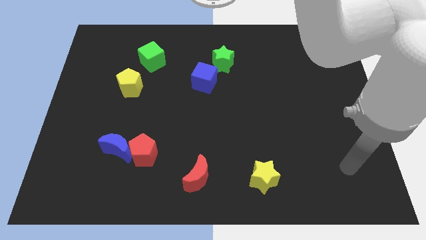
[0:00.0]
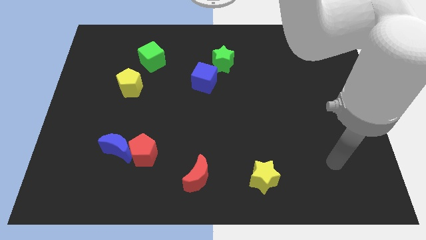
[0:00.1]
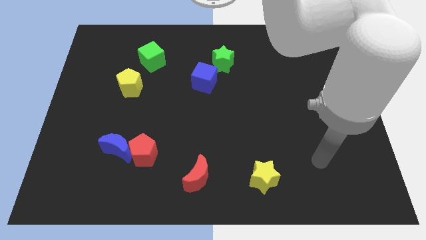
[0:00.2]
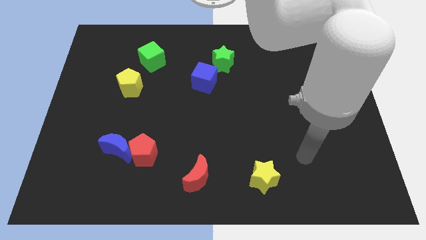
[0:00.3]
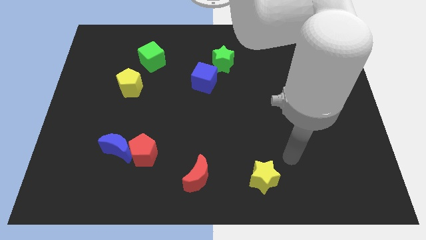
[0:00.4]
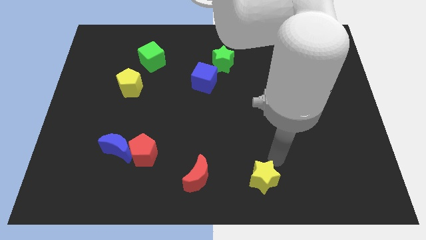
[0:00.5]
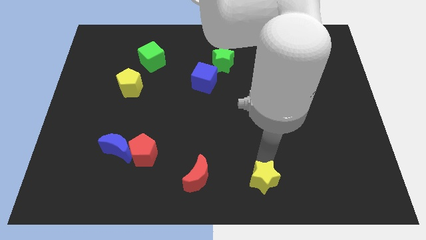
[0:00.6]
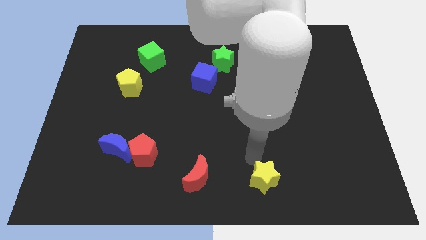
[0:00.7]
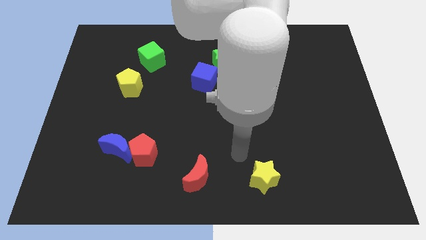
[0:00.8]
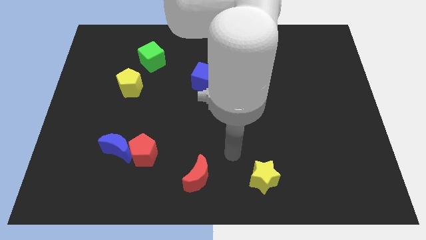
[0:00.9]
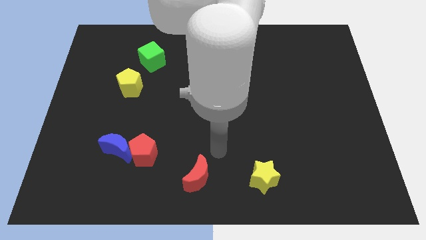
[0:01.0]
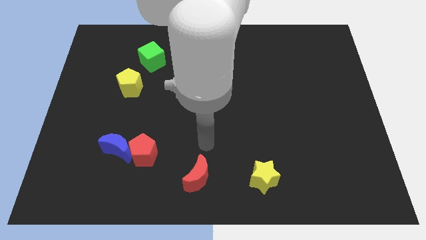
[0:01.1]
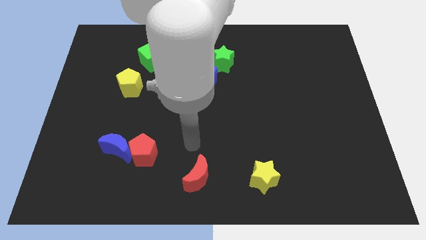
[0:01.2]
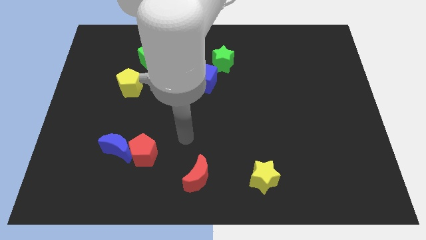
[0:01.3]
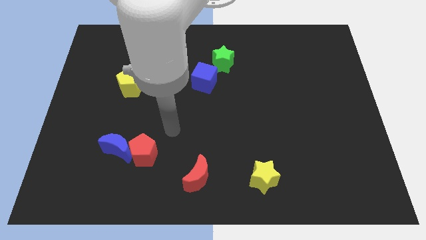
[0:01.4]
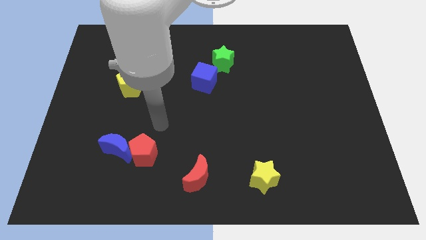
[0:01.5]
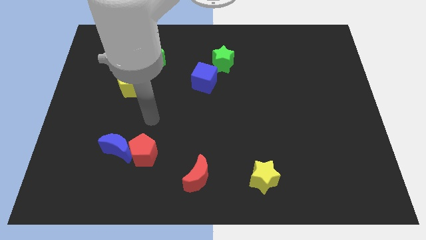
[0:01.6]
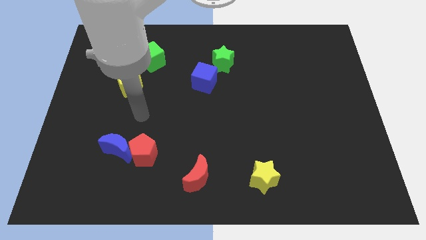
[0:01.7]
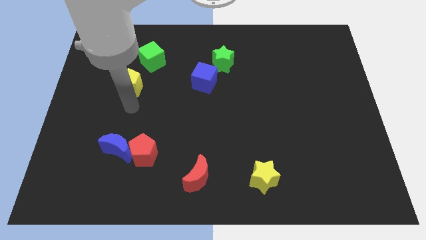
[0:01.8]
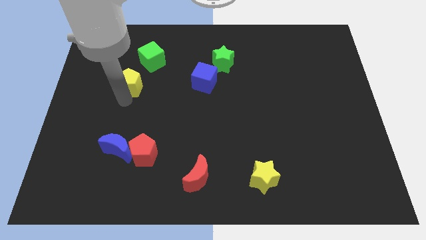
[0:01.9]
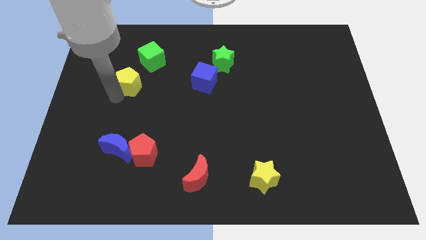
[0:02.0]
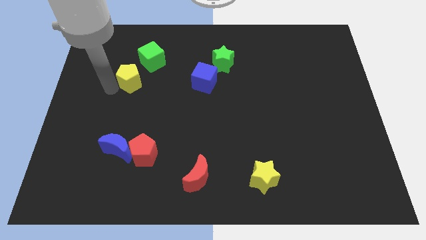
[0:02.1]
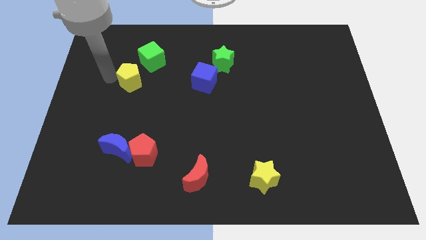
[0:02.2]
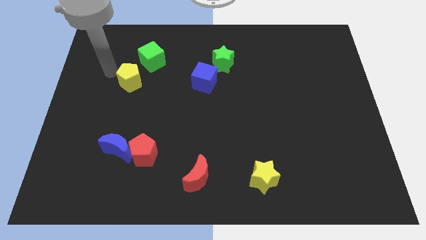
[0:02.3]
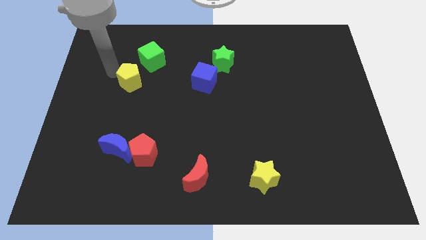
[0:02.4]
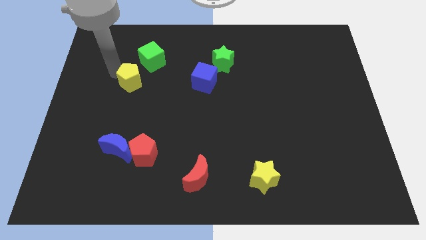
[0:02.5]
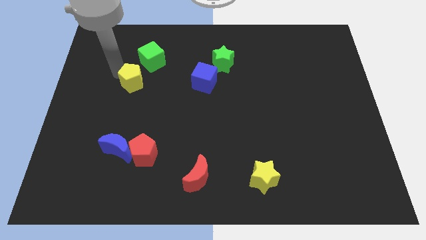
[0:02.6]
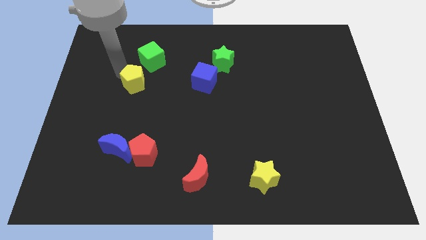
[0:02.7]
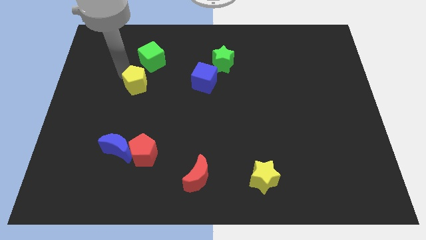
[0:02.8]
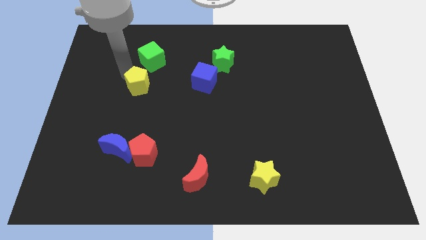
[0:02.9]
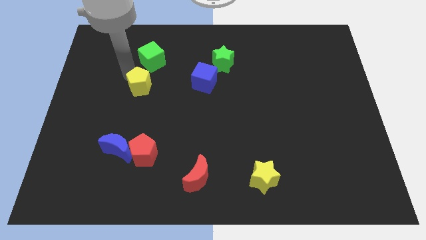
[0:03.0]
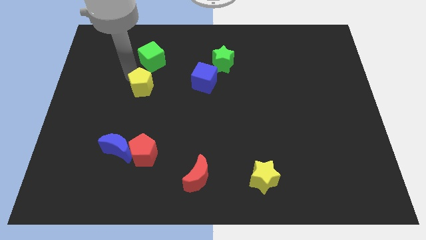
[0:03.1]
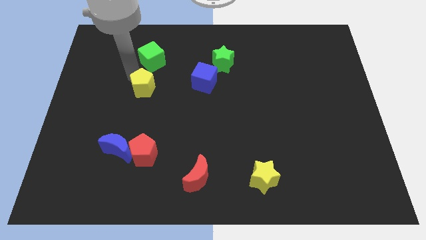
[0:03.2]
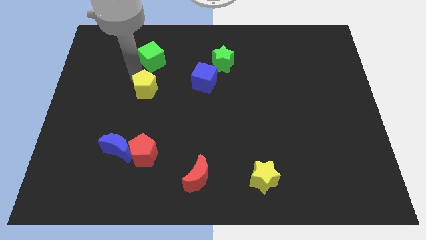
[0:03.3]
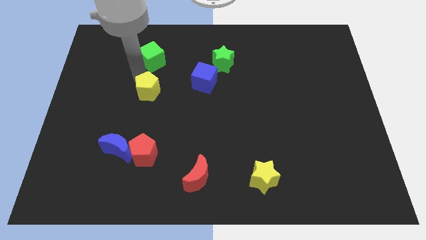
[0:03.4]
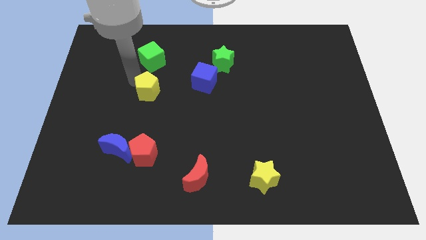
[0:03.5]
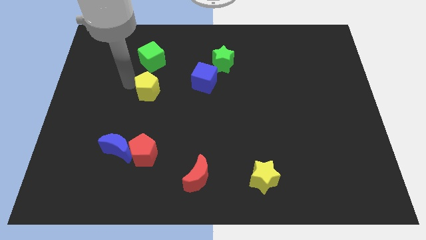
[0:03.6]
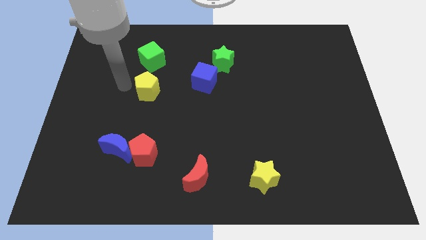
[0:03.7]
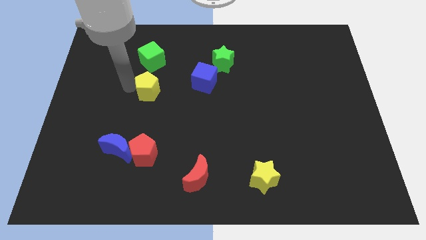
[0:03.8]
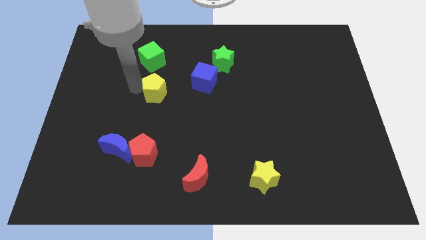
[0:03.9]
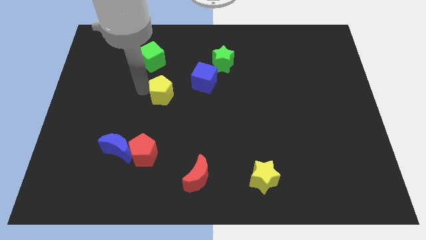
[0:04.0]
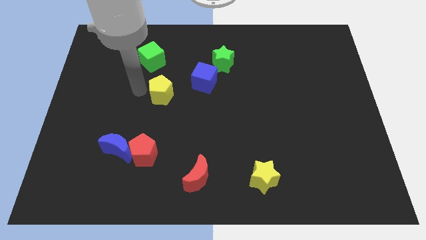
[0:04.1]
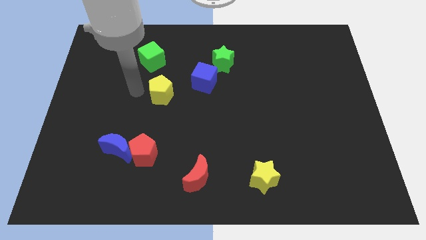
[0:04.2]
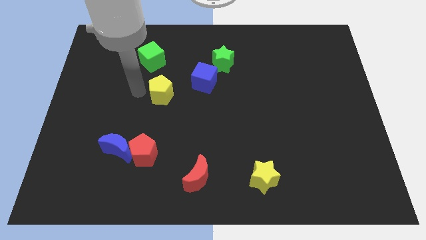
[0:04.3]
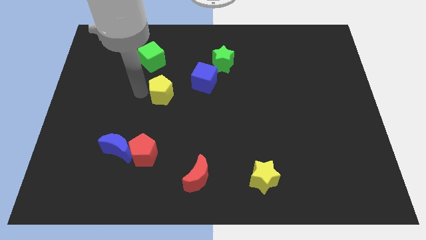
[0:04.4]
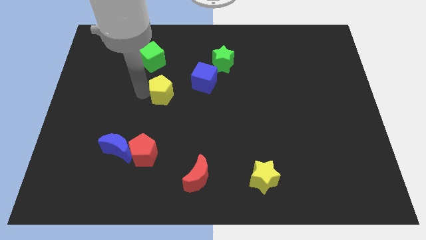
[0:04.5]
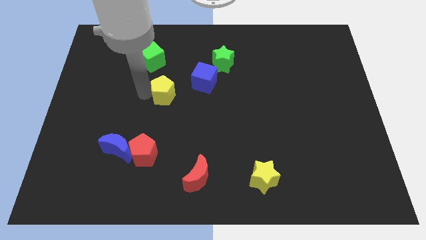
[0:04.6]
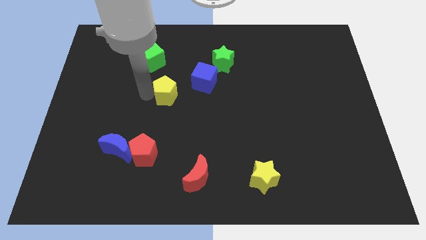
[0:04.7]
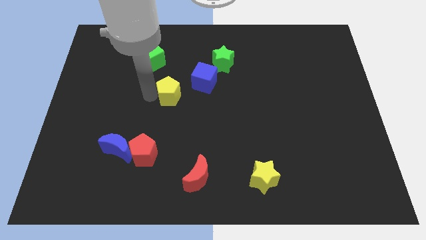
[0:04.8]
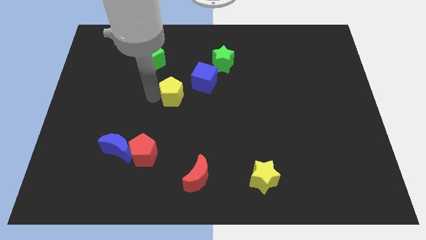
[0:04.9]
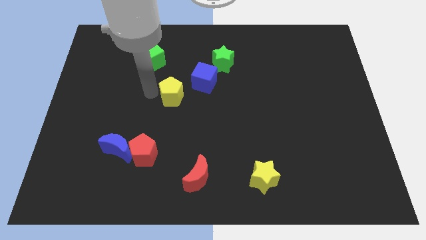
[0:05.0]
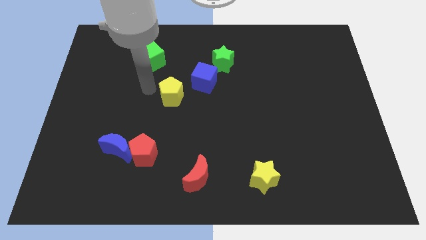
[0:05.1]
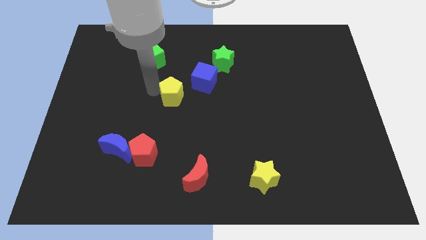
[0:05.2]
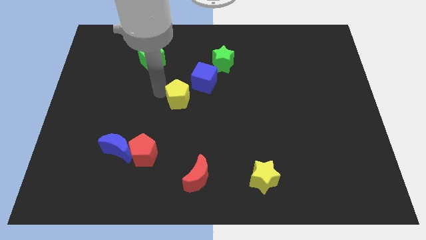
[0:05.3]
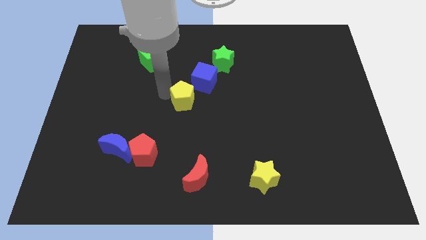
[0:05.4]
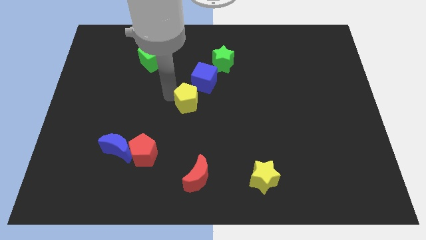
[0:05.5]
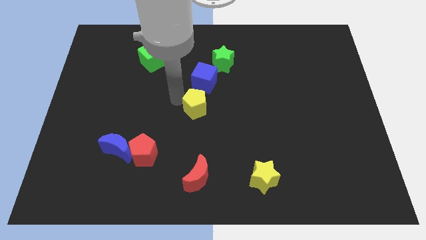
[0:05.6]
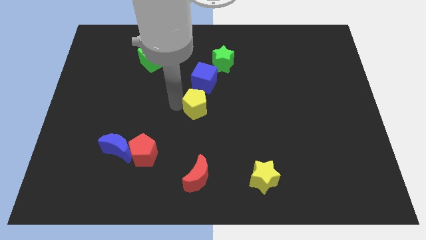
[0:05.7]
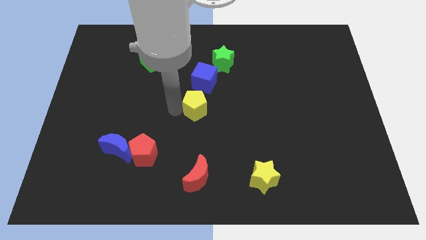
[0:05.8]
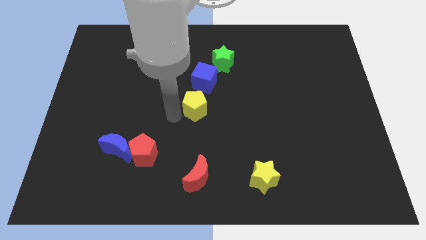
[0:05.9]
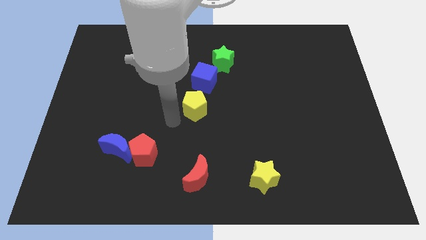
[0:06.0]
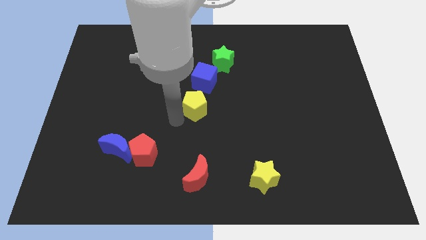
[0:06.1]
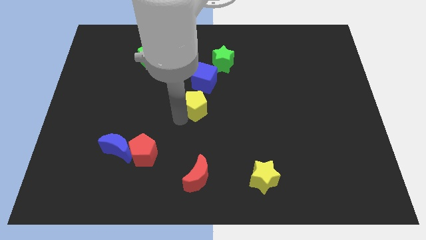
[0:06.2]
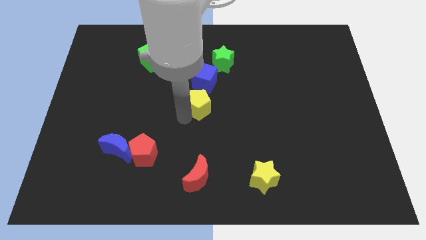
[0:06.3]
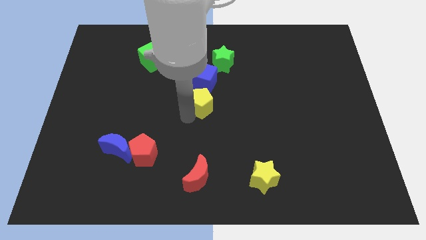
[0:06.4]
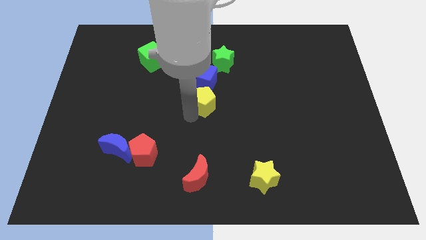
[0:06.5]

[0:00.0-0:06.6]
move the yellow pentagon to the bottom side of the green star
